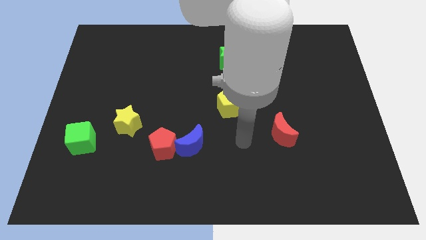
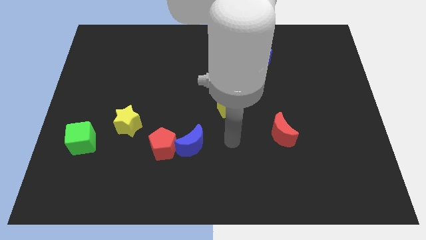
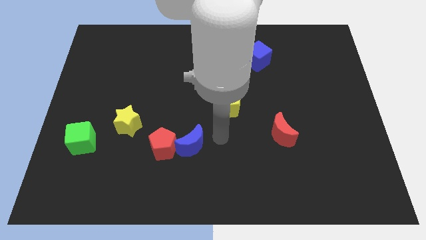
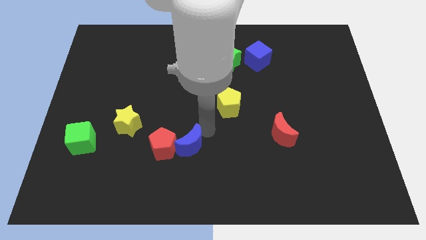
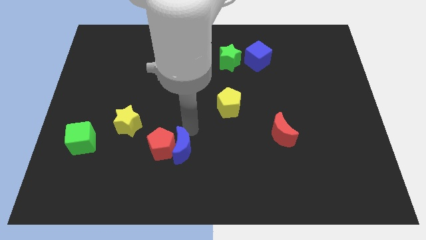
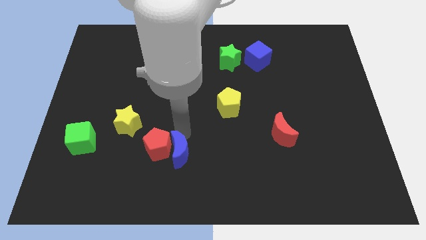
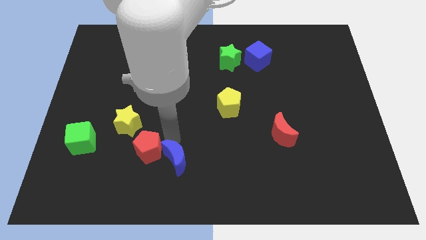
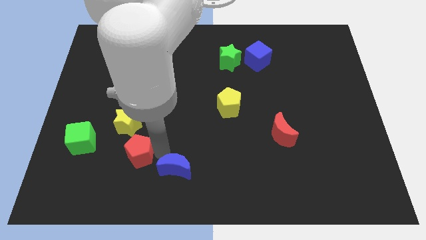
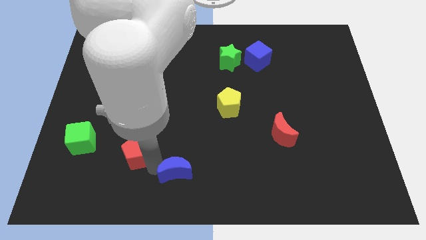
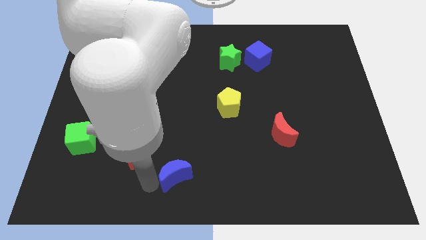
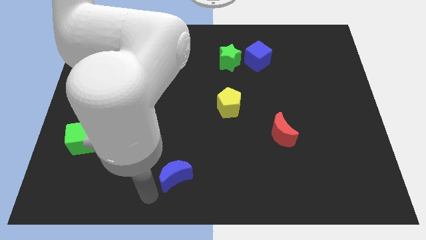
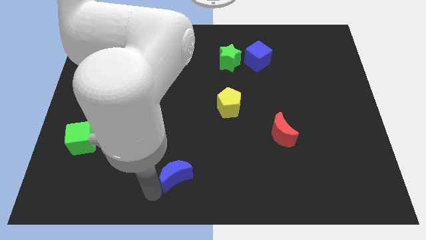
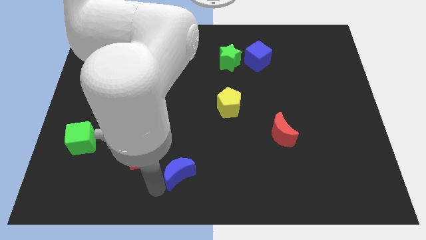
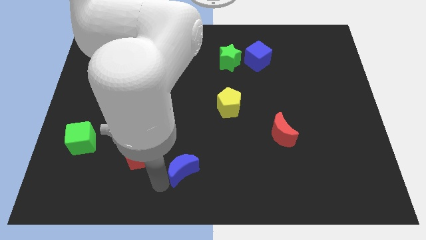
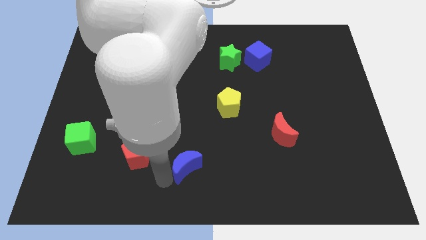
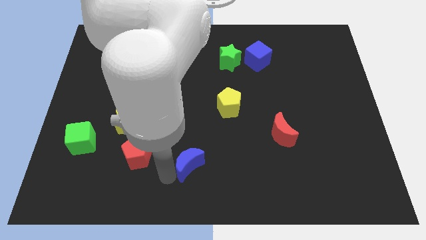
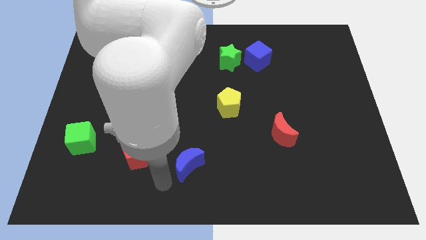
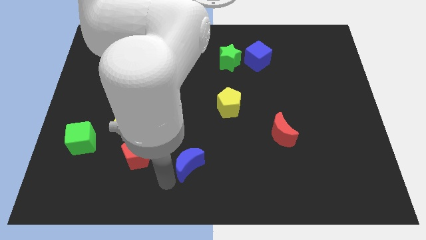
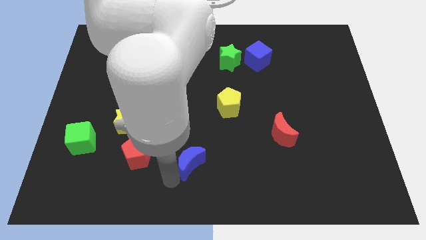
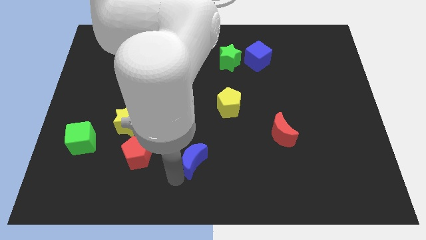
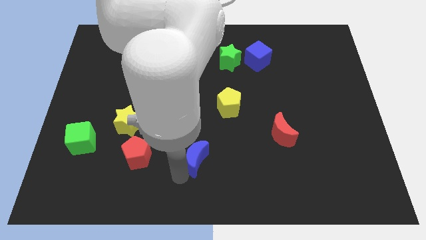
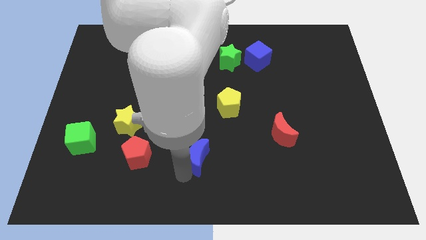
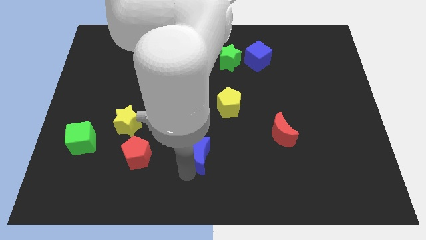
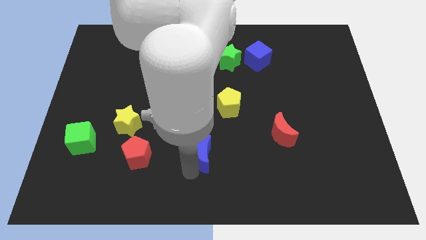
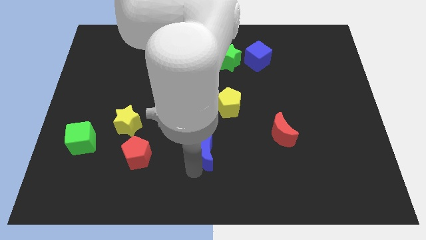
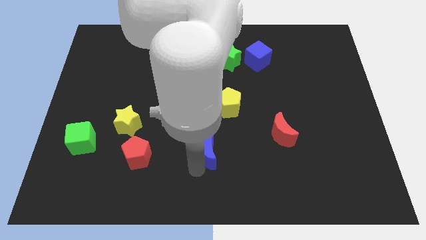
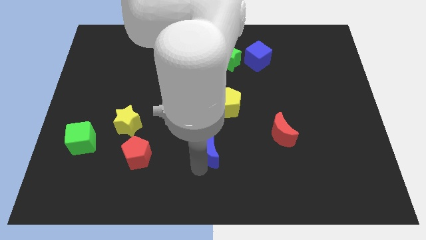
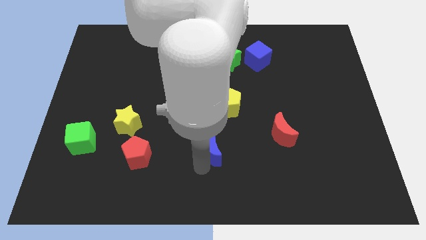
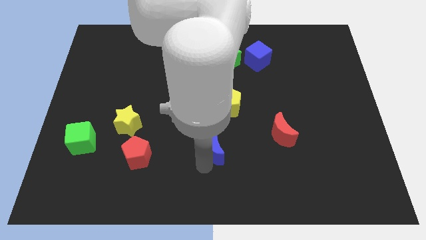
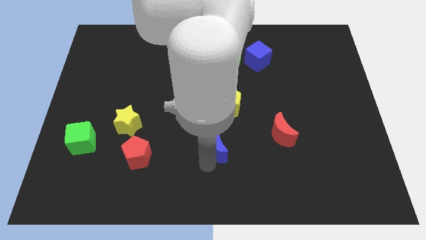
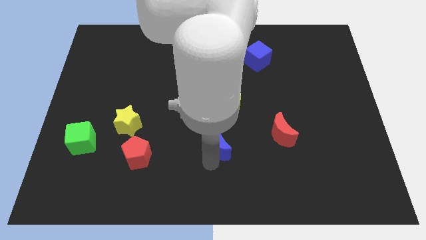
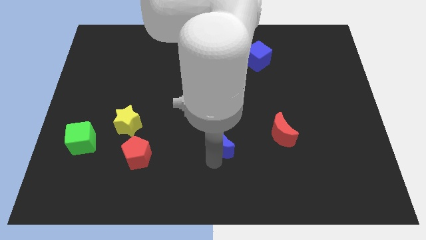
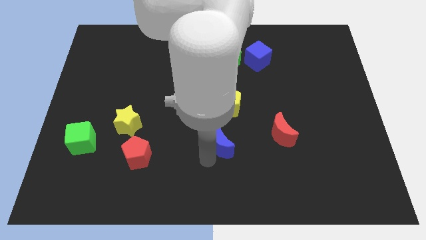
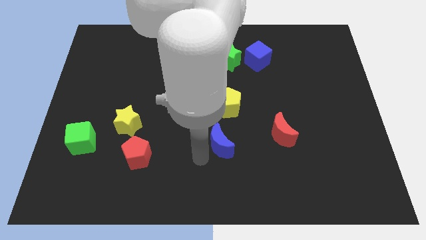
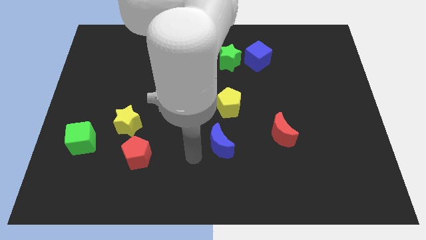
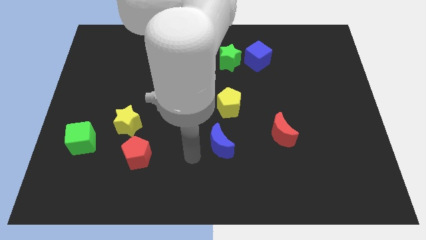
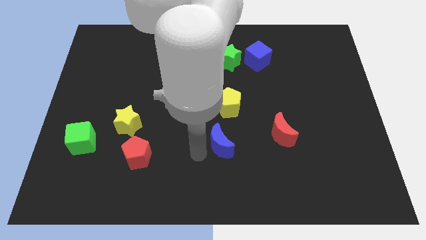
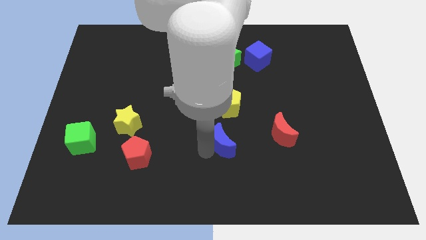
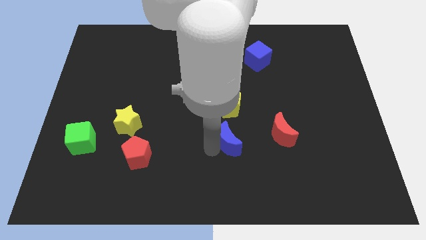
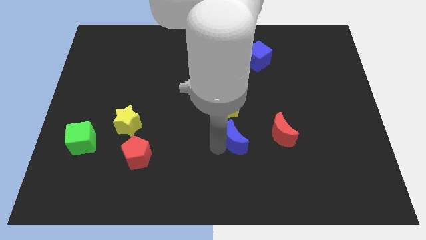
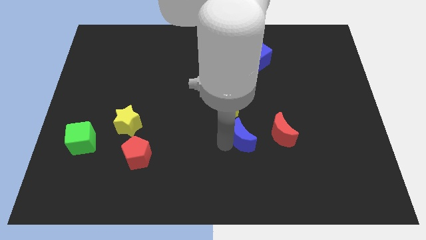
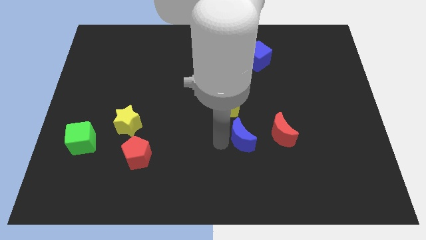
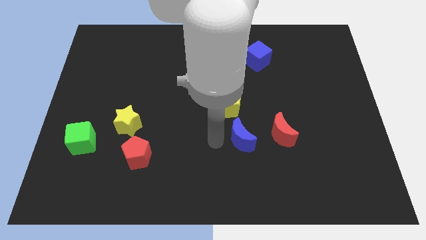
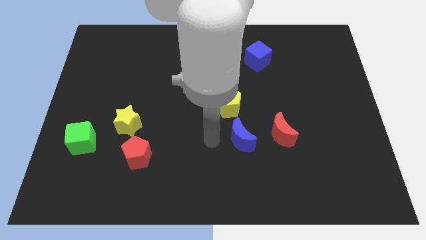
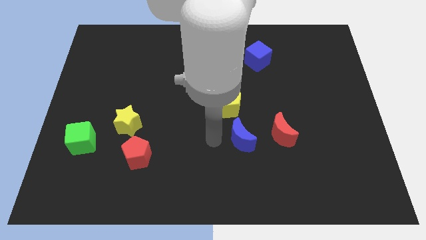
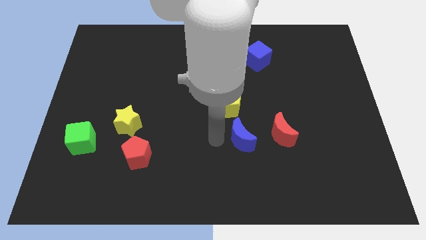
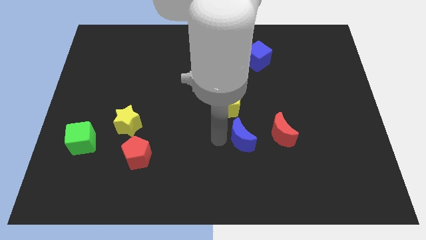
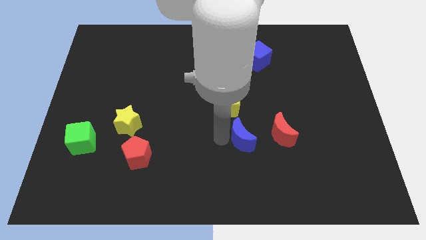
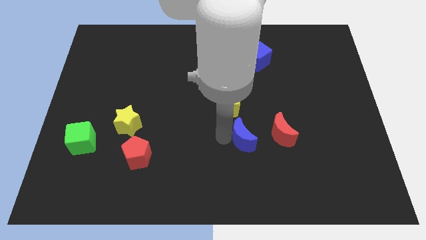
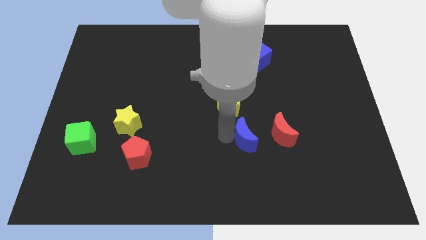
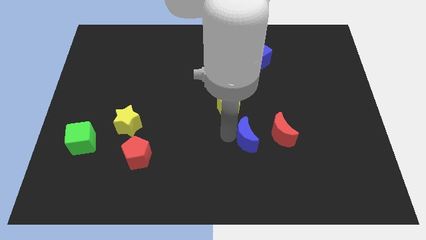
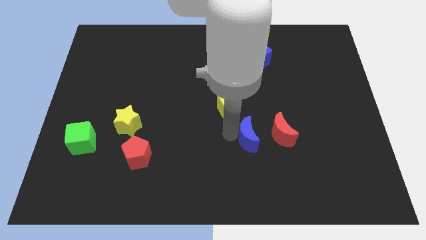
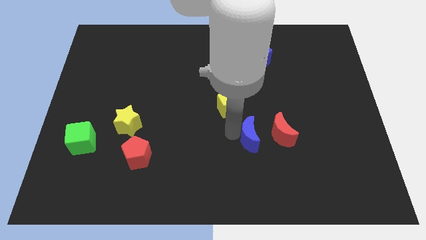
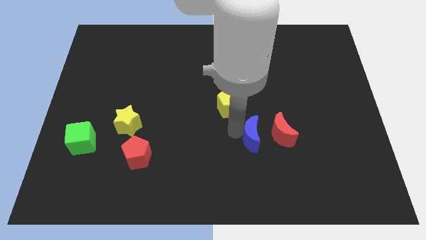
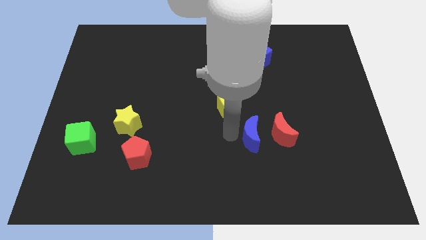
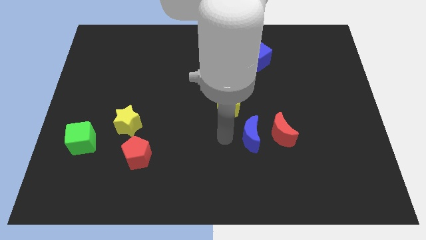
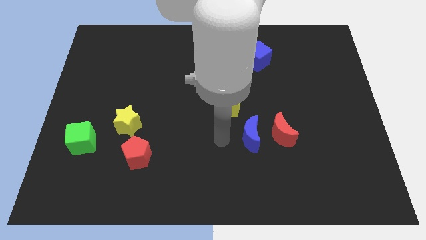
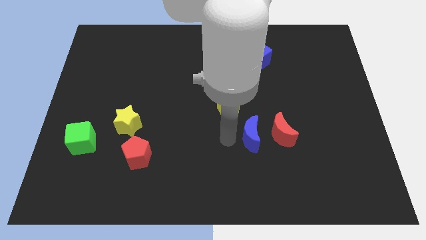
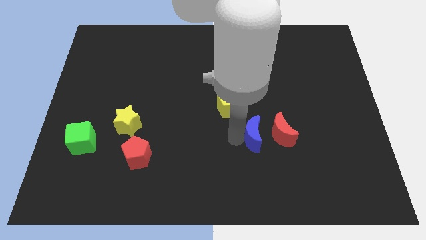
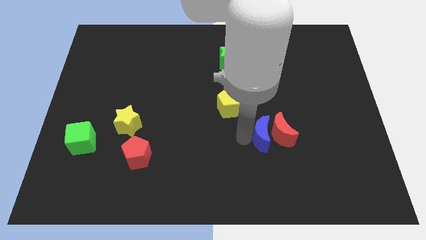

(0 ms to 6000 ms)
put the blue moon close to the red moon

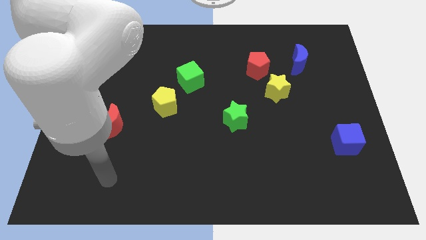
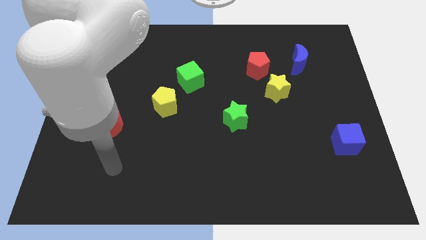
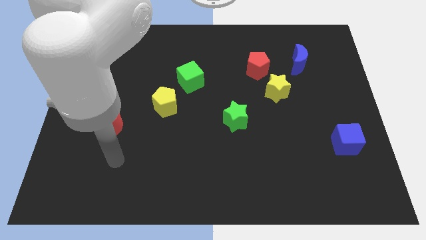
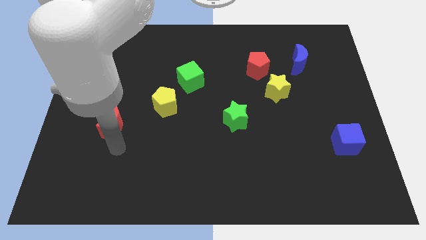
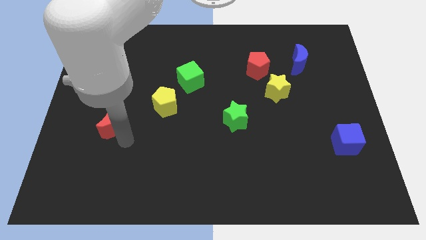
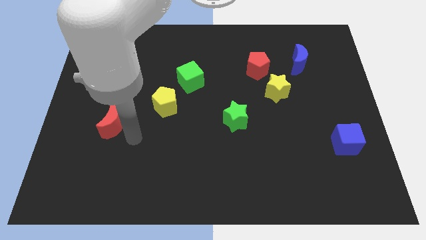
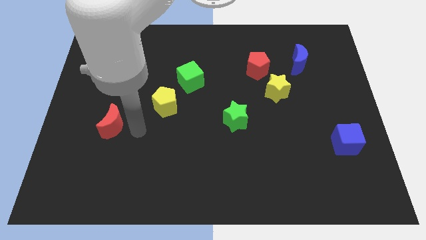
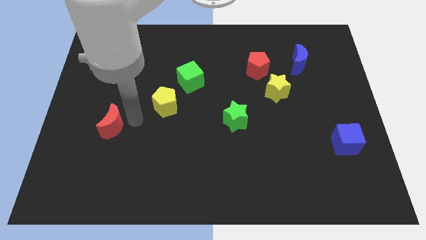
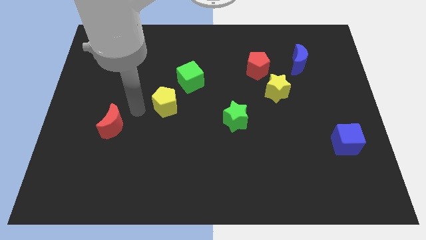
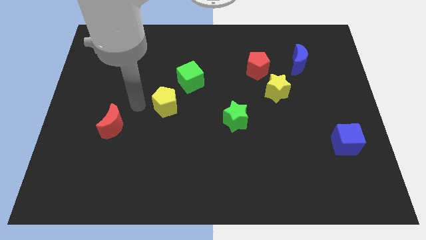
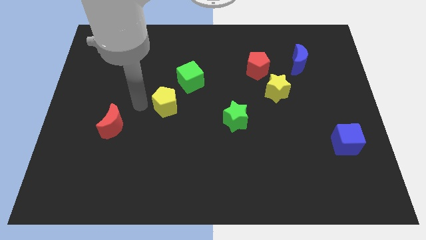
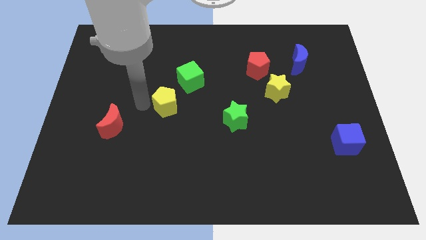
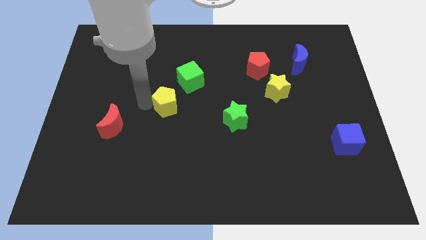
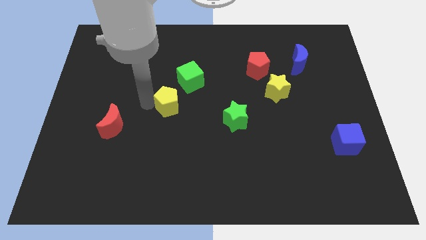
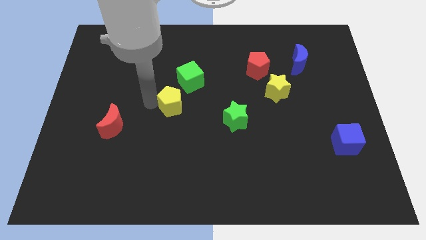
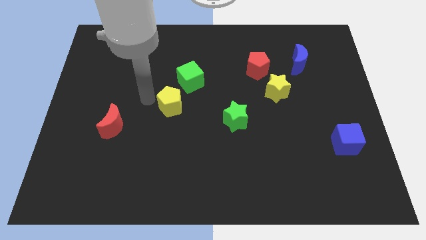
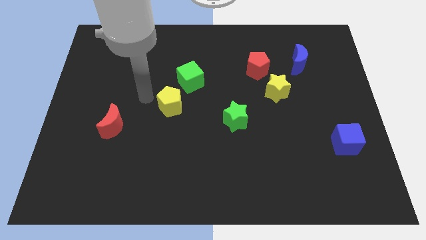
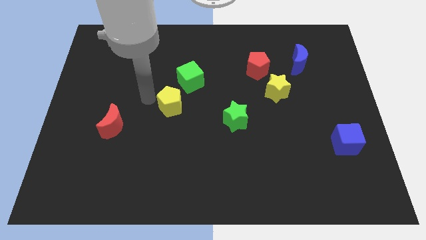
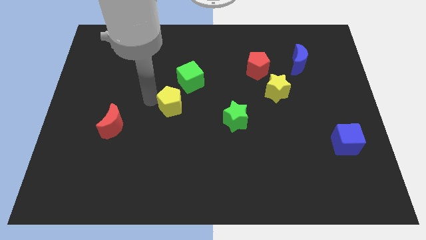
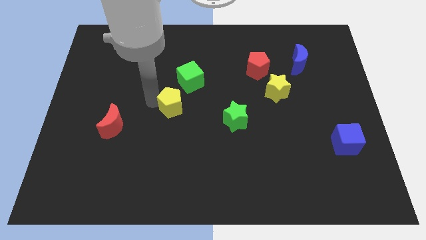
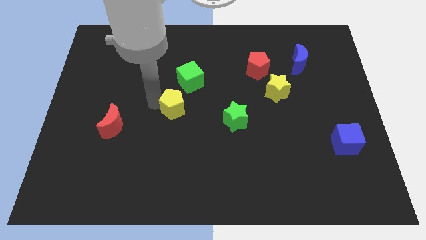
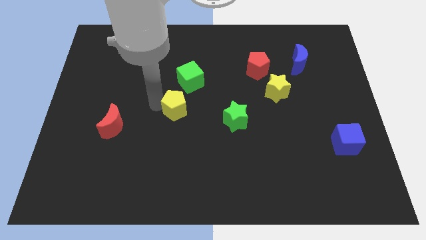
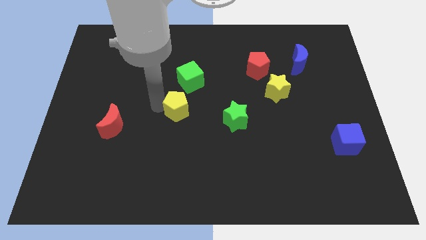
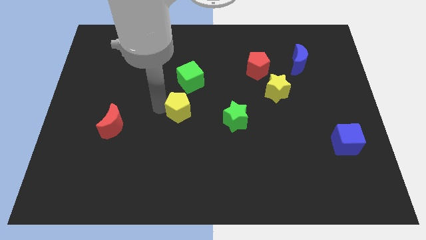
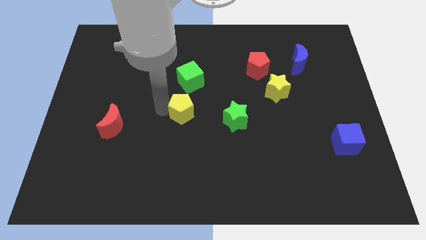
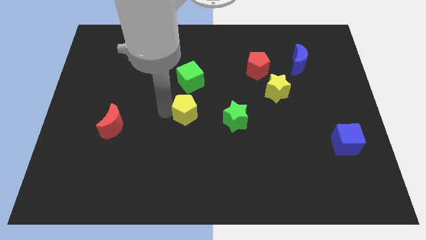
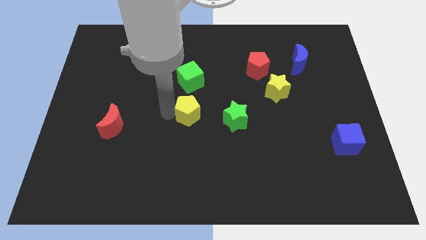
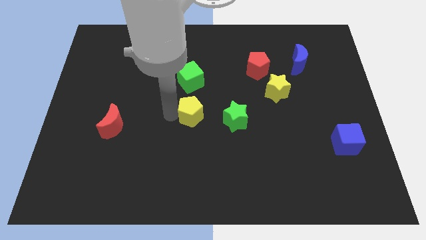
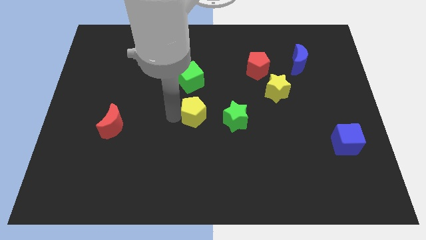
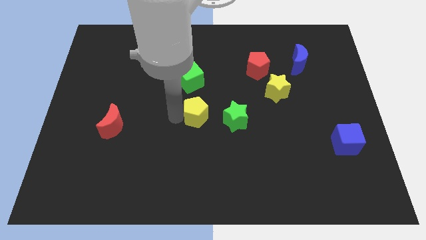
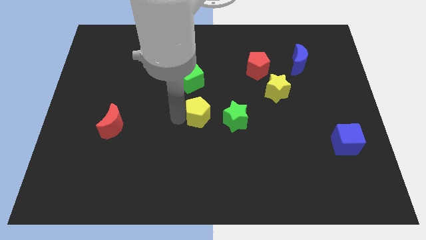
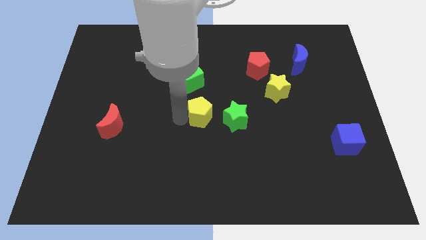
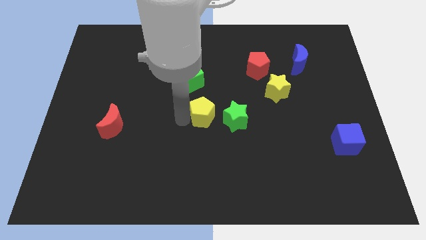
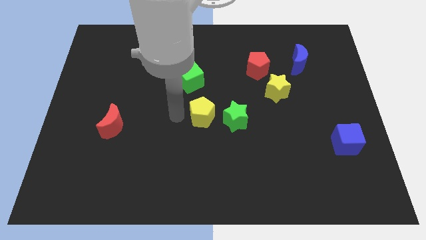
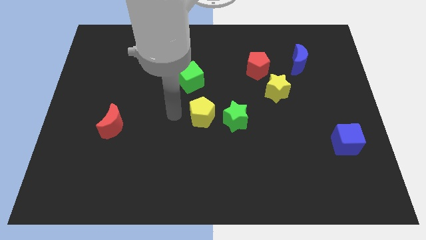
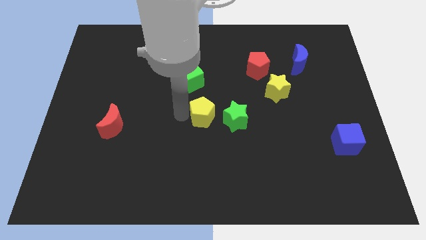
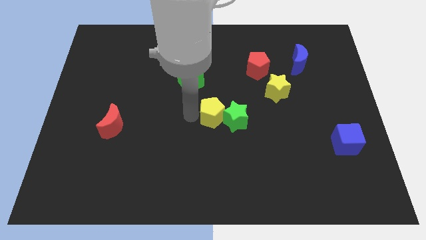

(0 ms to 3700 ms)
slide the yellow pentagon close to the green star
